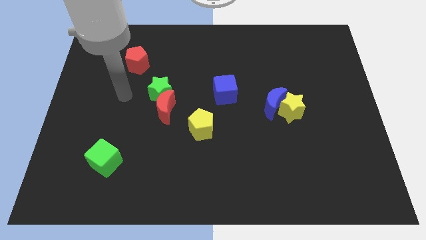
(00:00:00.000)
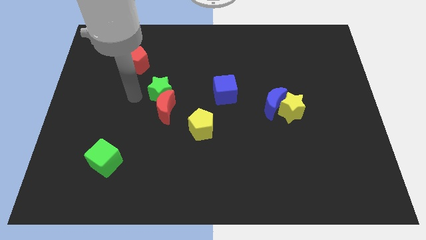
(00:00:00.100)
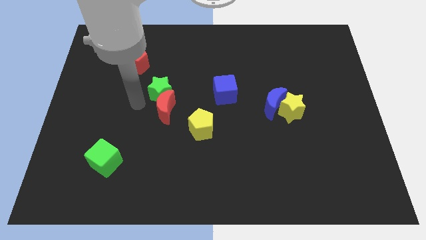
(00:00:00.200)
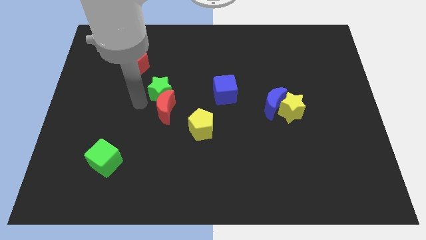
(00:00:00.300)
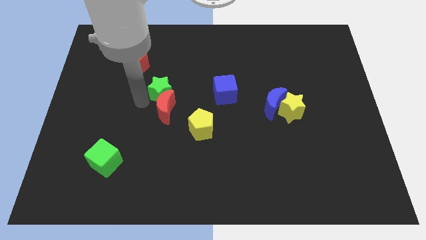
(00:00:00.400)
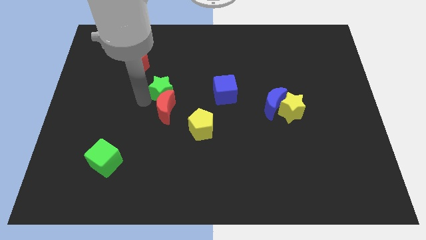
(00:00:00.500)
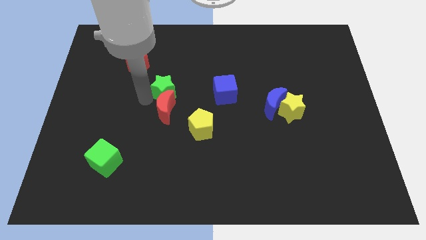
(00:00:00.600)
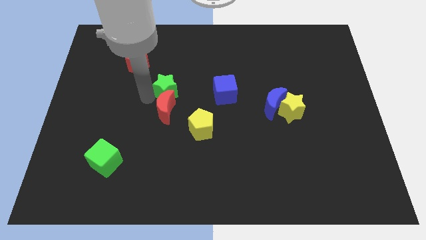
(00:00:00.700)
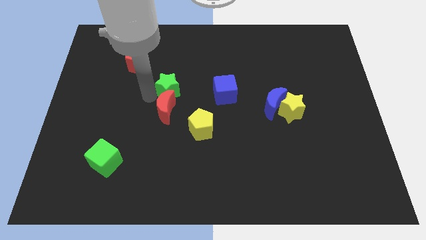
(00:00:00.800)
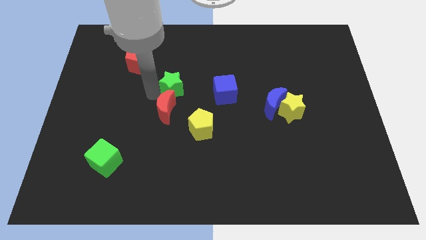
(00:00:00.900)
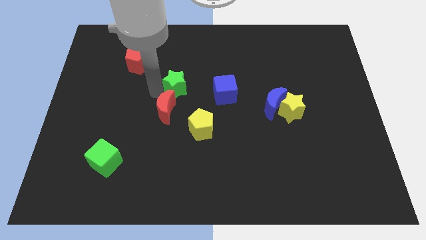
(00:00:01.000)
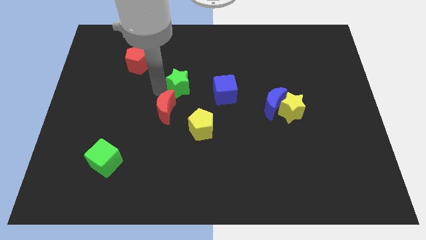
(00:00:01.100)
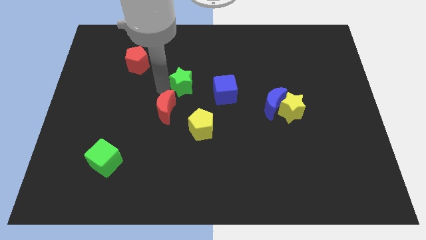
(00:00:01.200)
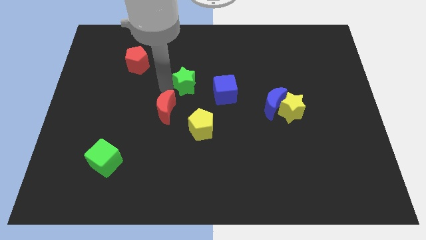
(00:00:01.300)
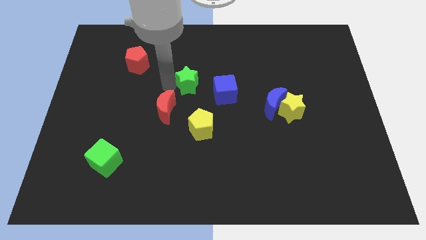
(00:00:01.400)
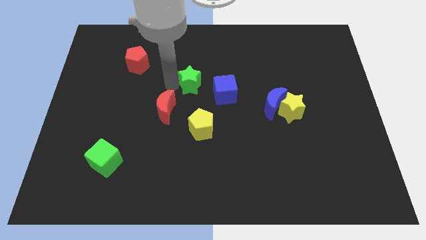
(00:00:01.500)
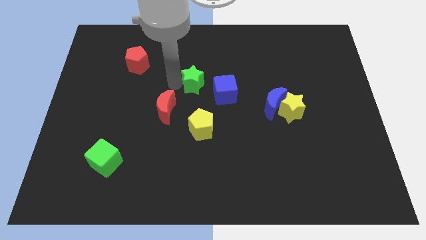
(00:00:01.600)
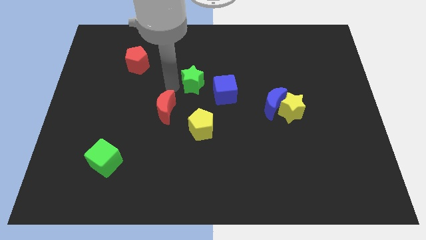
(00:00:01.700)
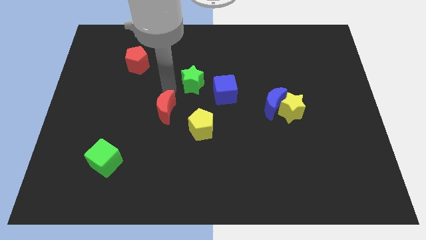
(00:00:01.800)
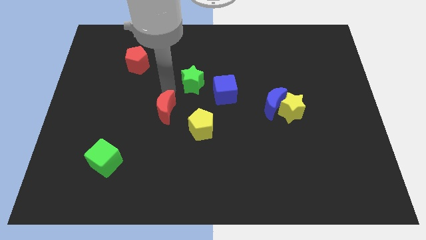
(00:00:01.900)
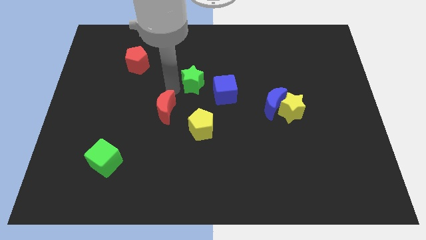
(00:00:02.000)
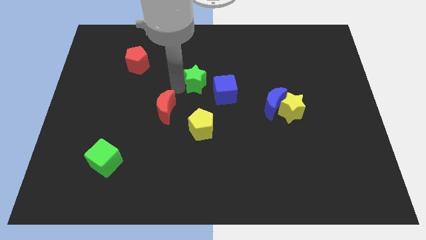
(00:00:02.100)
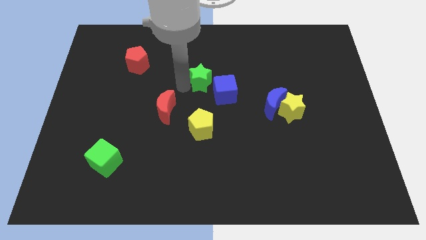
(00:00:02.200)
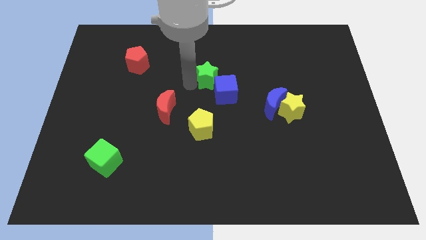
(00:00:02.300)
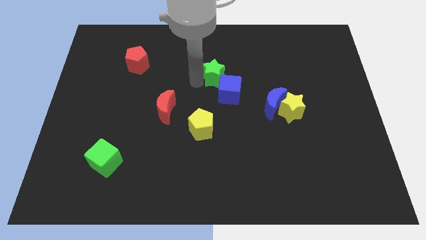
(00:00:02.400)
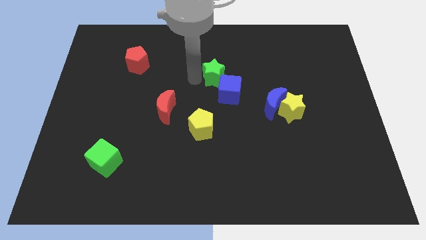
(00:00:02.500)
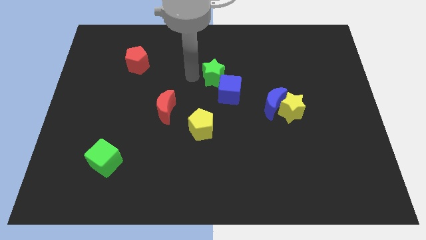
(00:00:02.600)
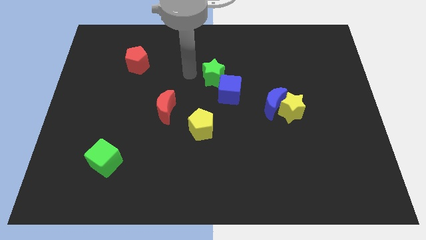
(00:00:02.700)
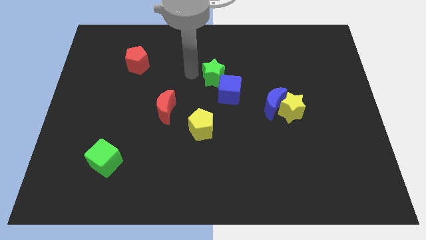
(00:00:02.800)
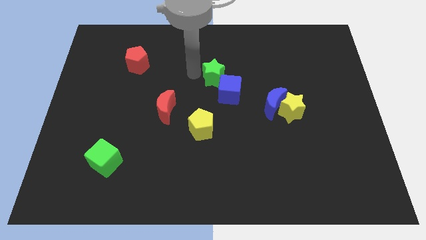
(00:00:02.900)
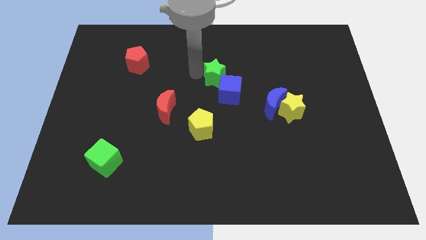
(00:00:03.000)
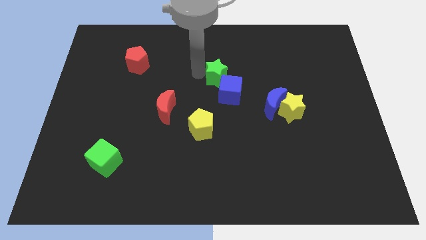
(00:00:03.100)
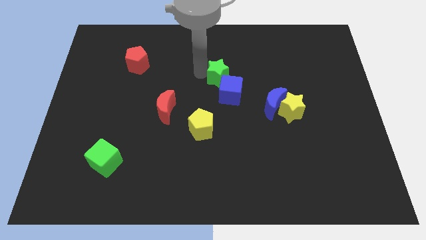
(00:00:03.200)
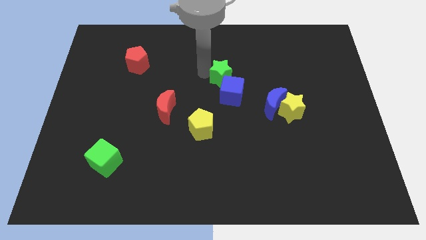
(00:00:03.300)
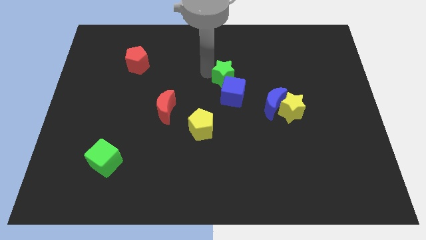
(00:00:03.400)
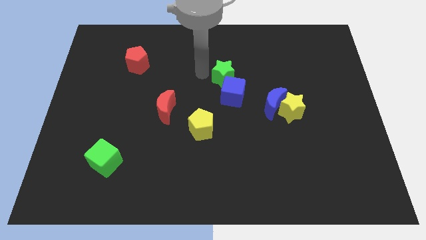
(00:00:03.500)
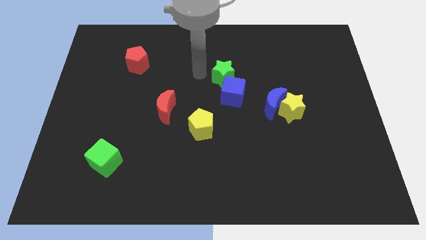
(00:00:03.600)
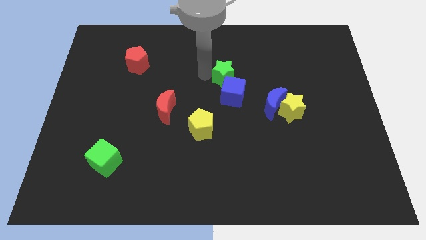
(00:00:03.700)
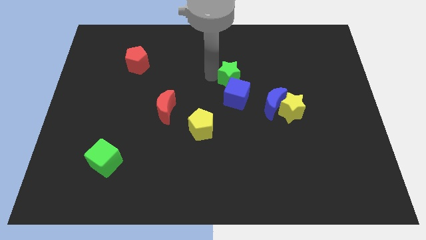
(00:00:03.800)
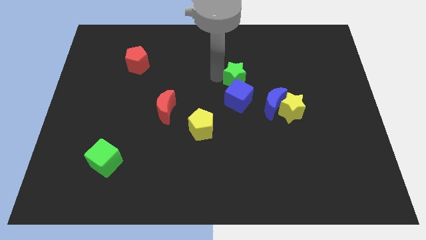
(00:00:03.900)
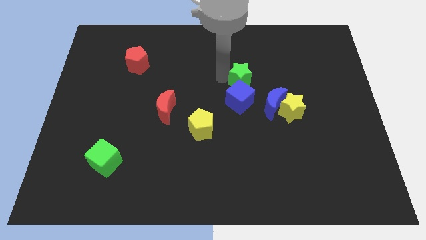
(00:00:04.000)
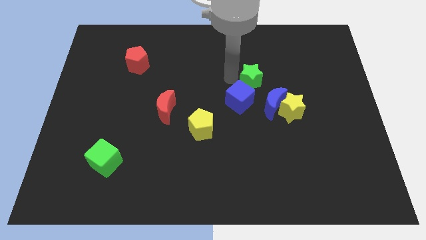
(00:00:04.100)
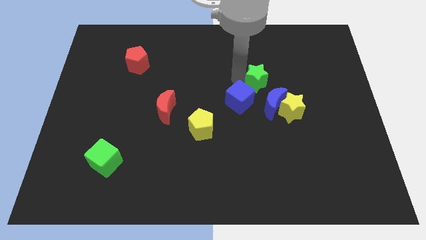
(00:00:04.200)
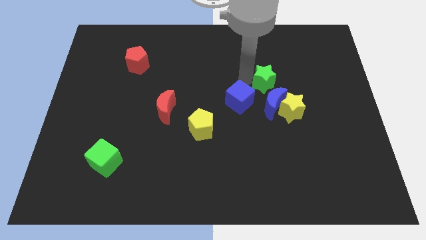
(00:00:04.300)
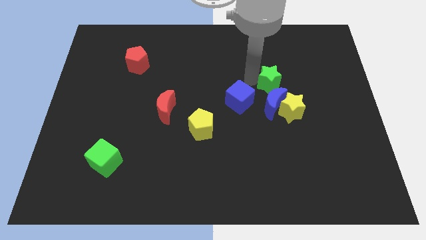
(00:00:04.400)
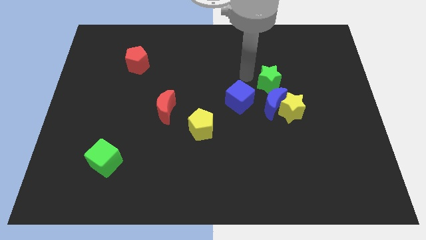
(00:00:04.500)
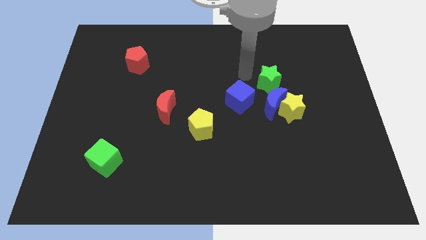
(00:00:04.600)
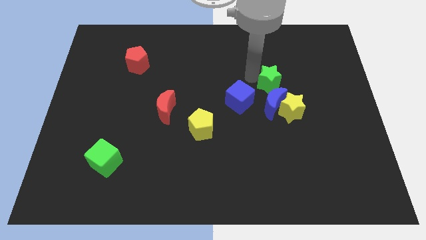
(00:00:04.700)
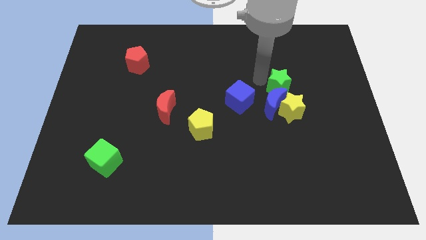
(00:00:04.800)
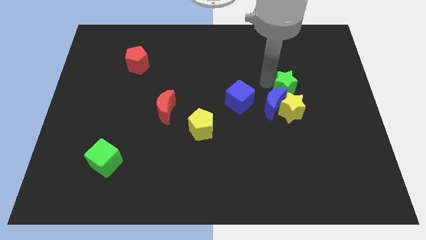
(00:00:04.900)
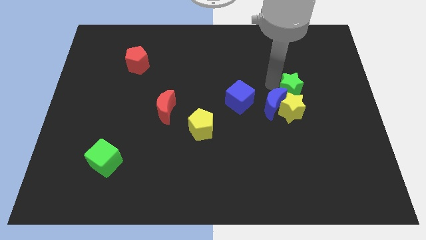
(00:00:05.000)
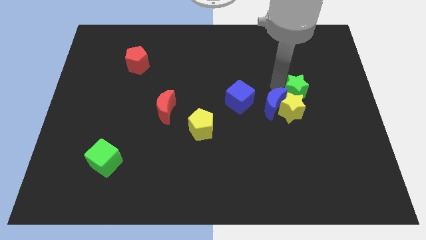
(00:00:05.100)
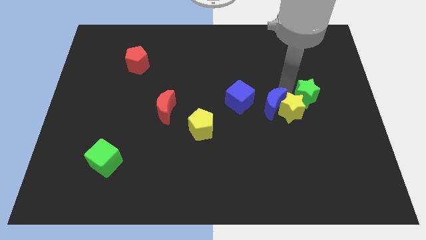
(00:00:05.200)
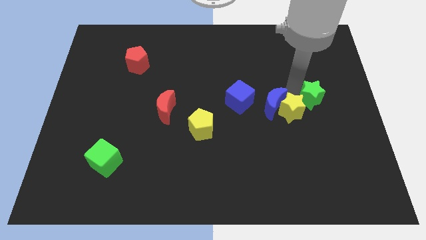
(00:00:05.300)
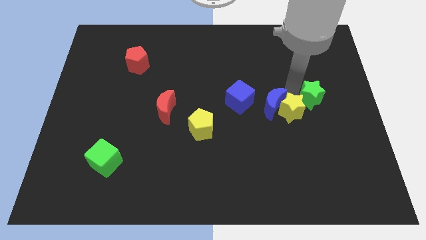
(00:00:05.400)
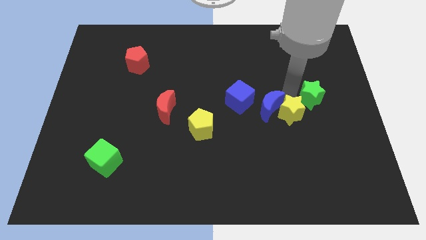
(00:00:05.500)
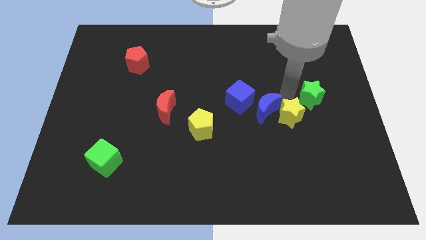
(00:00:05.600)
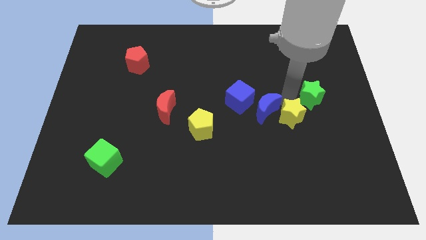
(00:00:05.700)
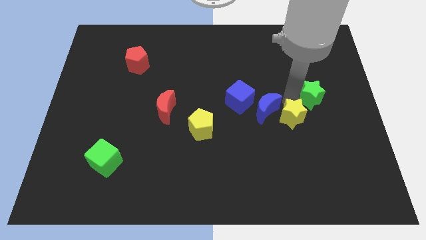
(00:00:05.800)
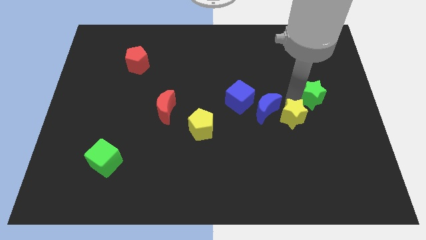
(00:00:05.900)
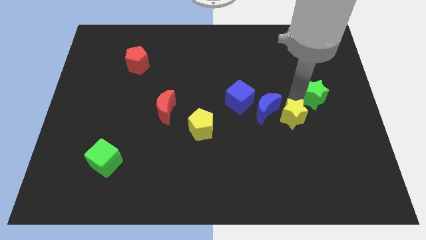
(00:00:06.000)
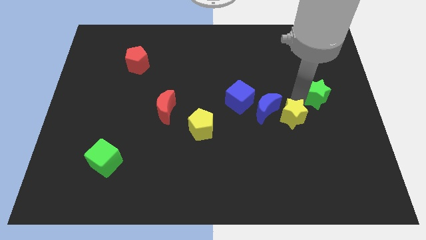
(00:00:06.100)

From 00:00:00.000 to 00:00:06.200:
move the green star to the center right
